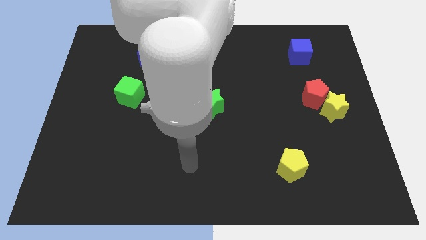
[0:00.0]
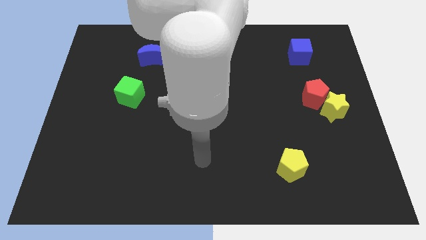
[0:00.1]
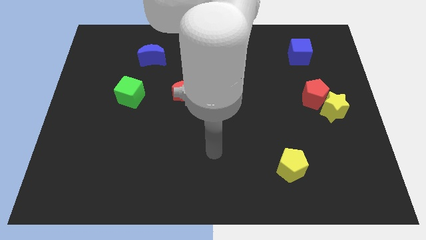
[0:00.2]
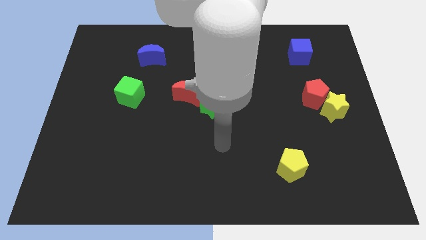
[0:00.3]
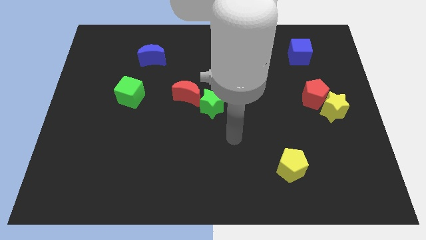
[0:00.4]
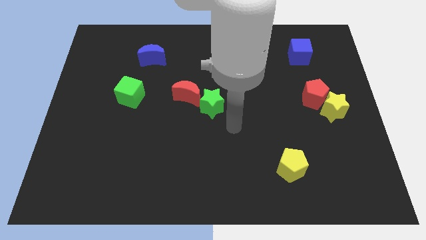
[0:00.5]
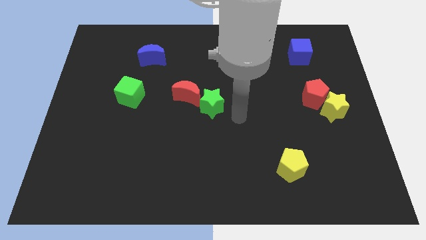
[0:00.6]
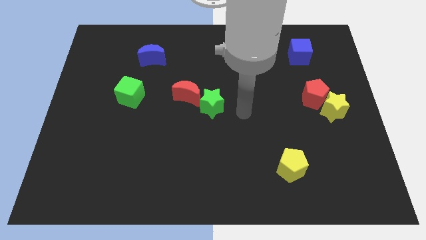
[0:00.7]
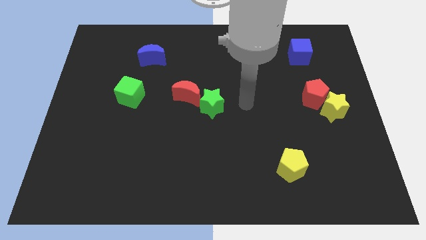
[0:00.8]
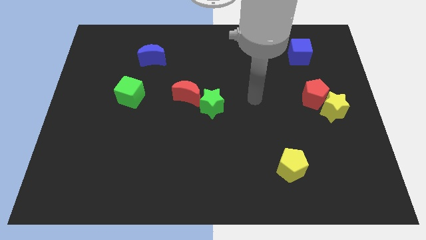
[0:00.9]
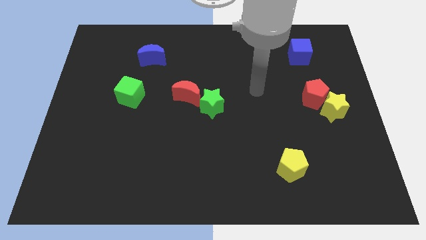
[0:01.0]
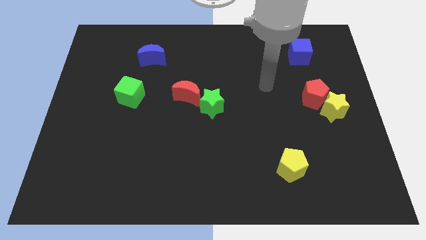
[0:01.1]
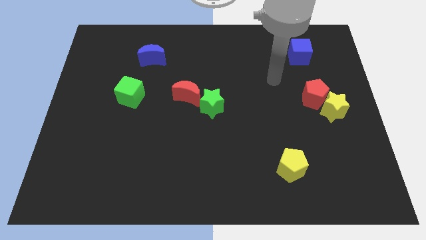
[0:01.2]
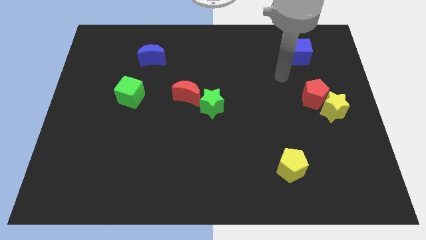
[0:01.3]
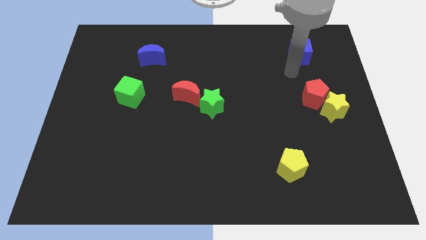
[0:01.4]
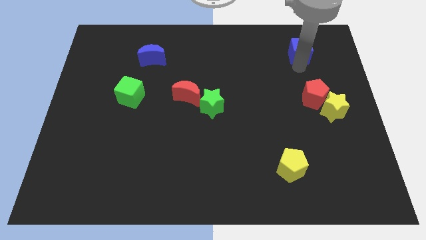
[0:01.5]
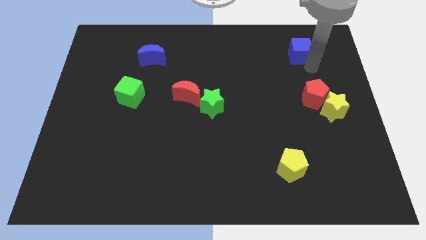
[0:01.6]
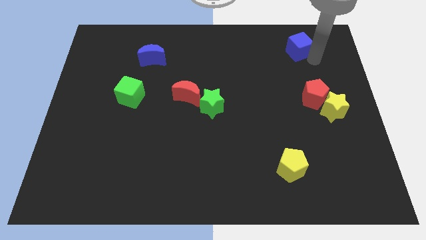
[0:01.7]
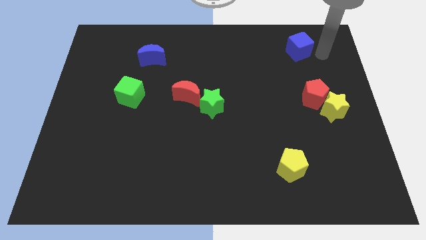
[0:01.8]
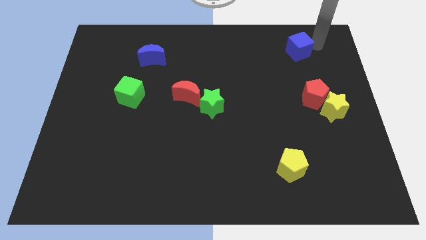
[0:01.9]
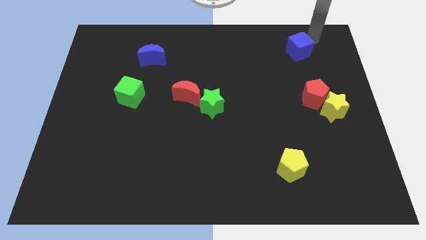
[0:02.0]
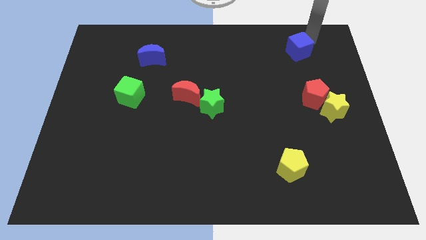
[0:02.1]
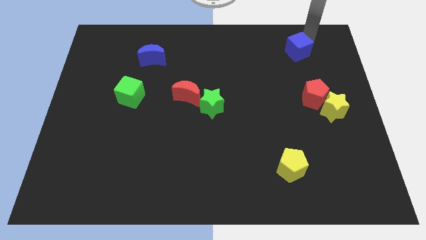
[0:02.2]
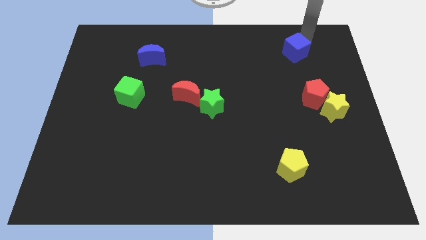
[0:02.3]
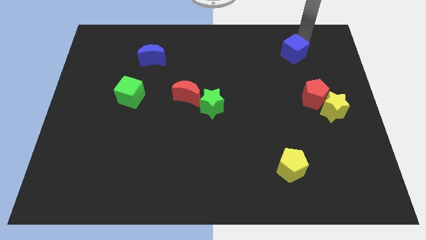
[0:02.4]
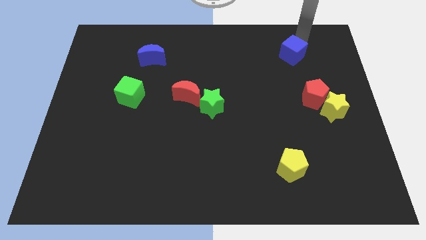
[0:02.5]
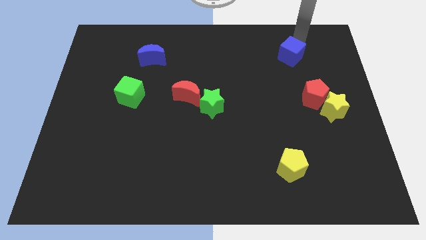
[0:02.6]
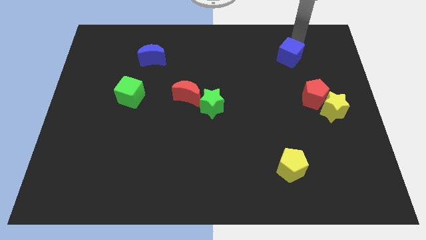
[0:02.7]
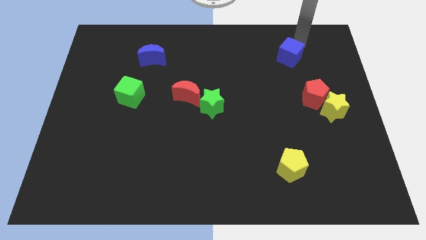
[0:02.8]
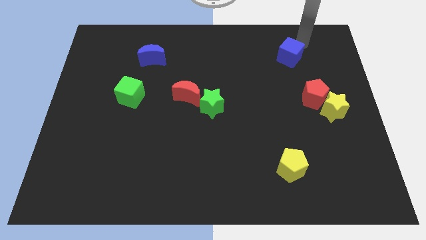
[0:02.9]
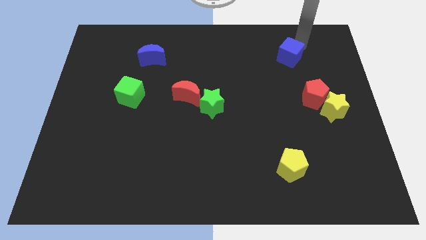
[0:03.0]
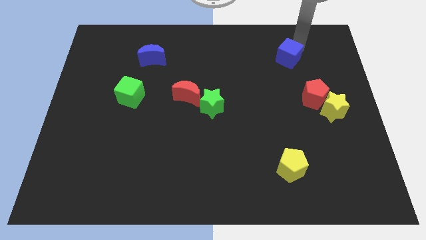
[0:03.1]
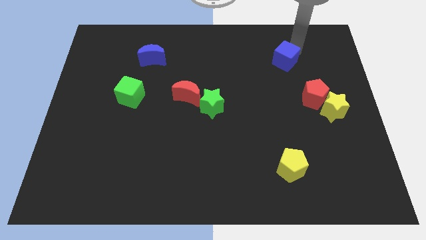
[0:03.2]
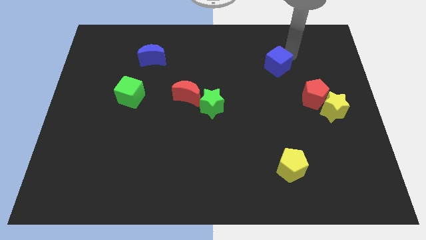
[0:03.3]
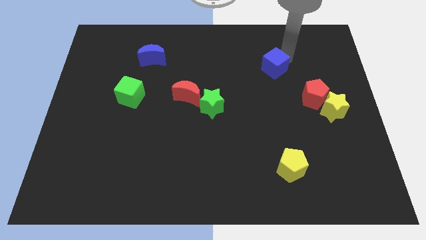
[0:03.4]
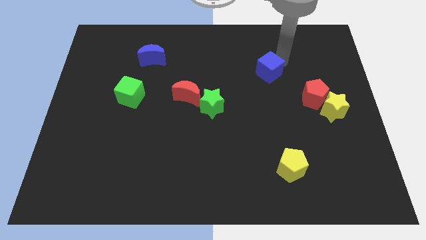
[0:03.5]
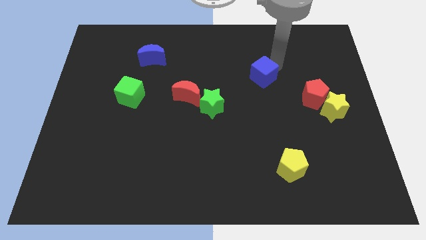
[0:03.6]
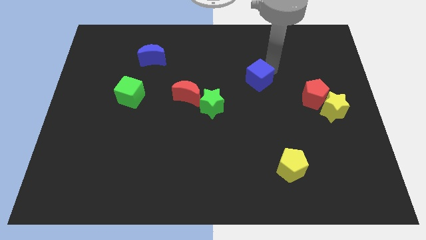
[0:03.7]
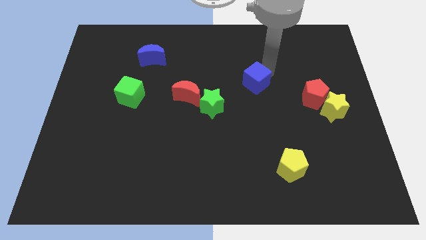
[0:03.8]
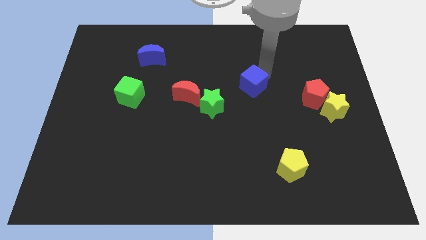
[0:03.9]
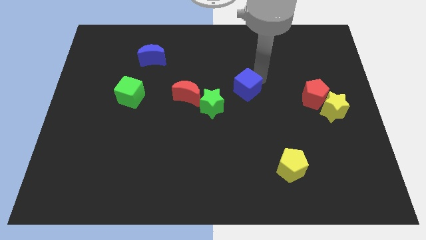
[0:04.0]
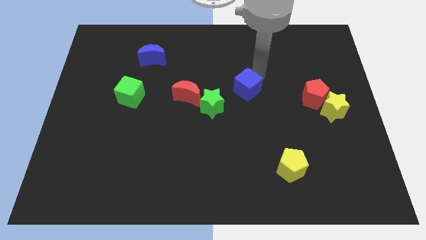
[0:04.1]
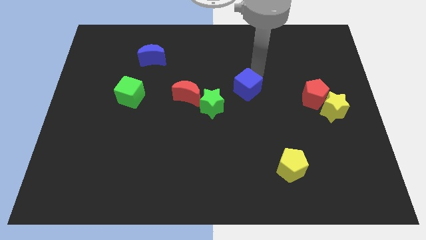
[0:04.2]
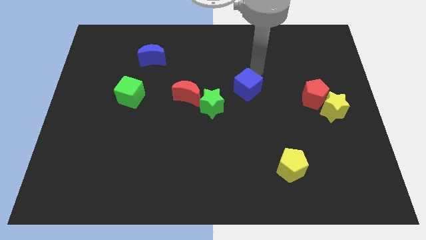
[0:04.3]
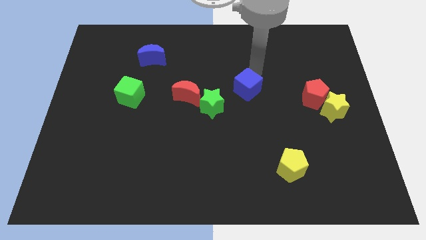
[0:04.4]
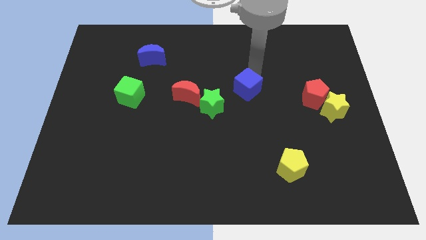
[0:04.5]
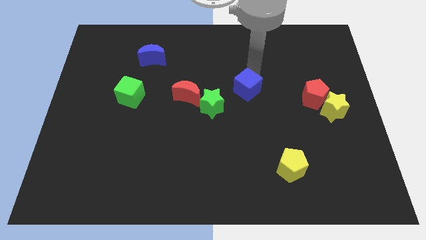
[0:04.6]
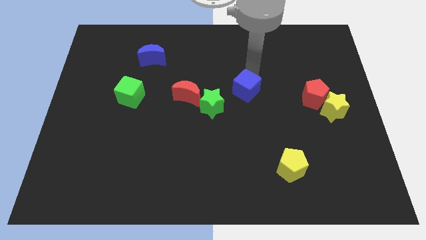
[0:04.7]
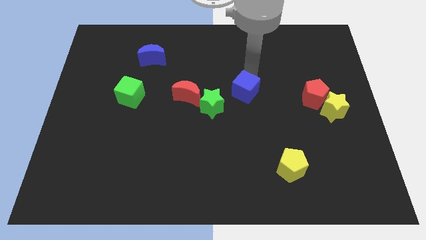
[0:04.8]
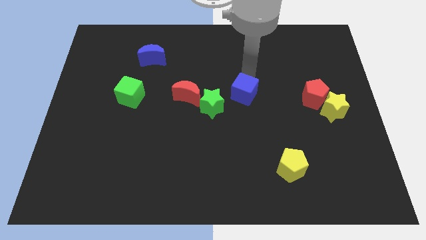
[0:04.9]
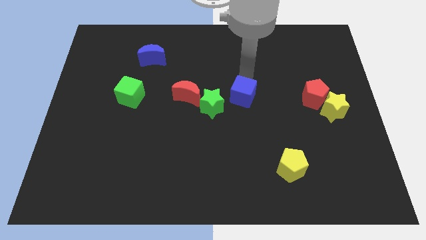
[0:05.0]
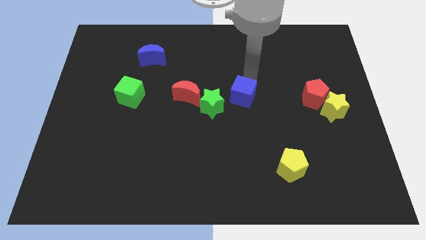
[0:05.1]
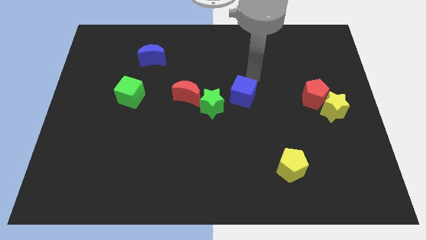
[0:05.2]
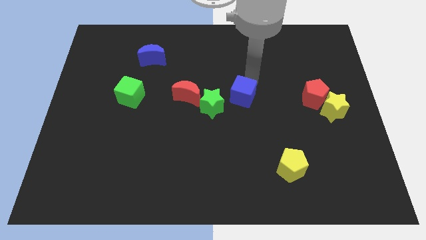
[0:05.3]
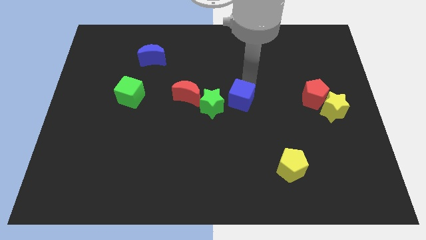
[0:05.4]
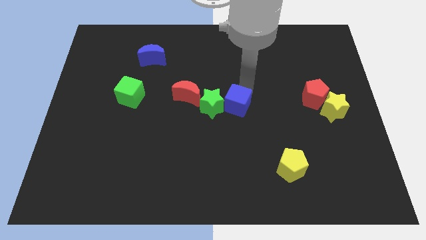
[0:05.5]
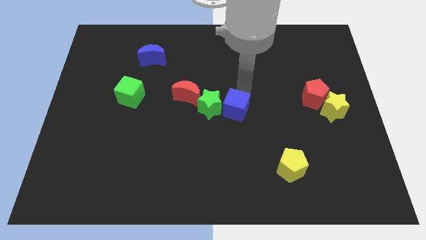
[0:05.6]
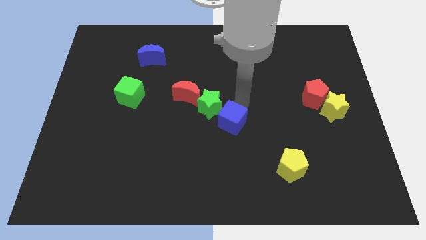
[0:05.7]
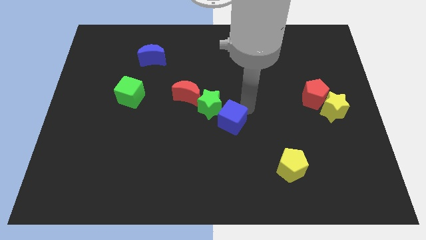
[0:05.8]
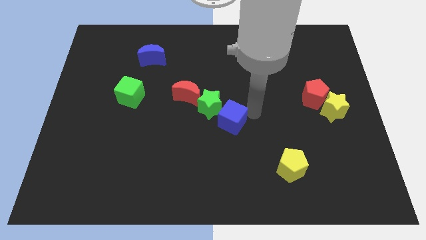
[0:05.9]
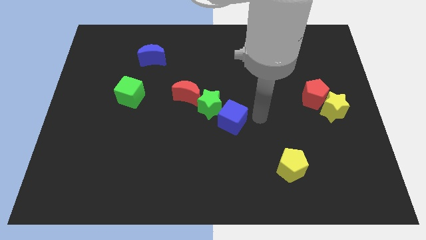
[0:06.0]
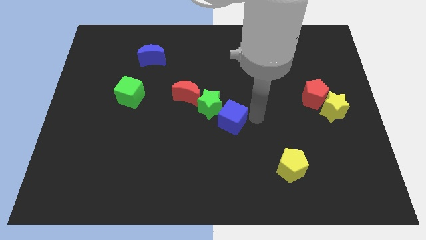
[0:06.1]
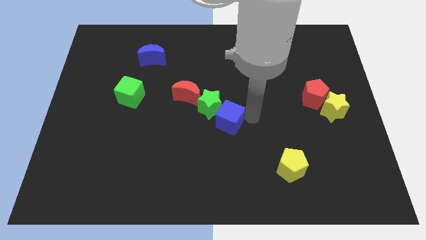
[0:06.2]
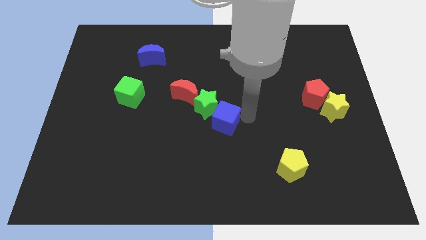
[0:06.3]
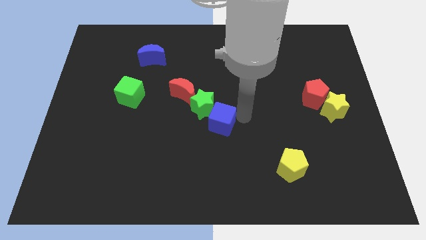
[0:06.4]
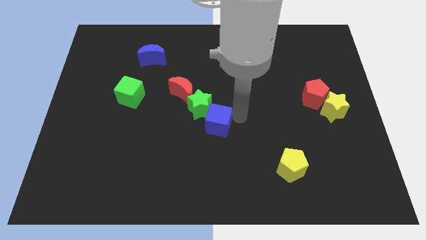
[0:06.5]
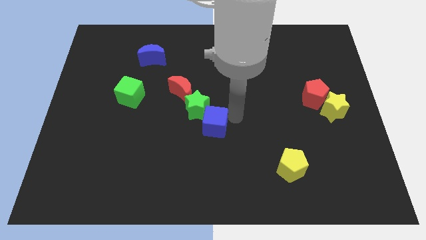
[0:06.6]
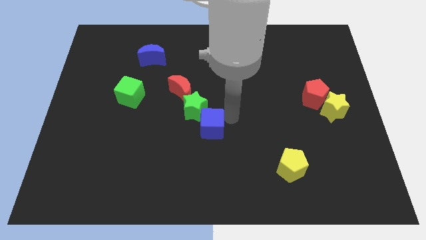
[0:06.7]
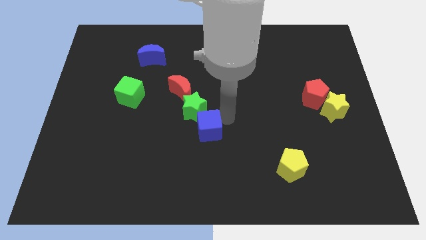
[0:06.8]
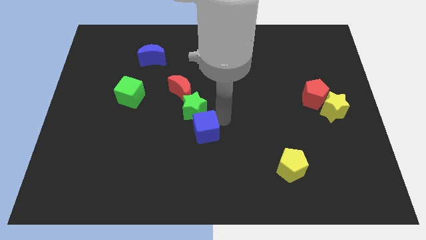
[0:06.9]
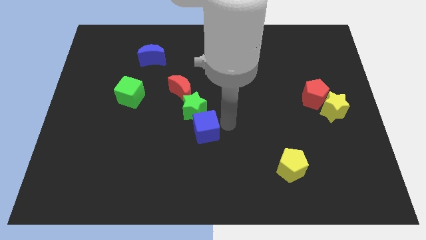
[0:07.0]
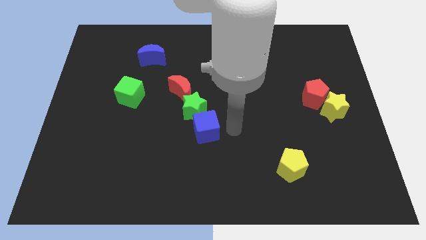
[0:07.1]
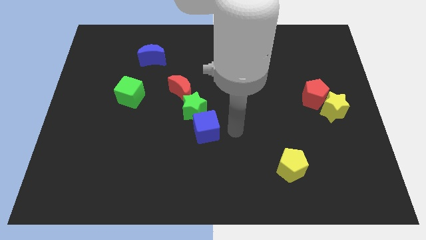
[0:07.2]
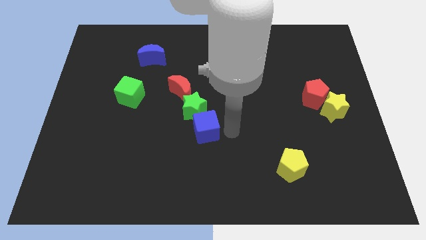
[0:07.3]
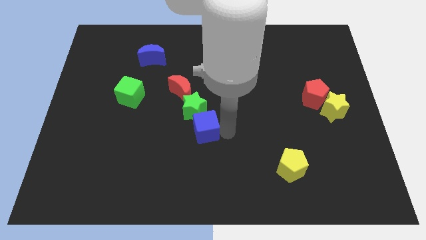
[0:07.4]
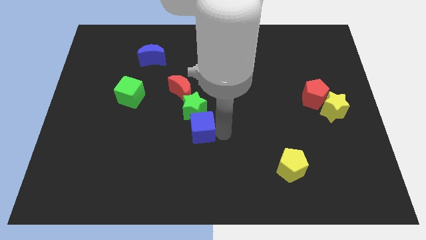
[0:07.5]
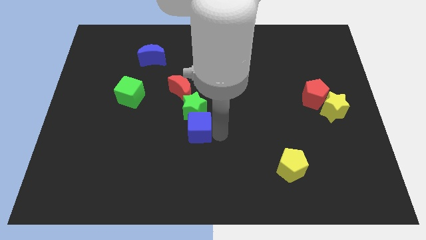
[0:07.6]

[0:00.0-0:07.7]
slide the blue cube diagonally down and to the left of the green star
